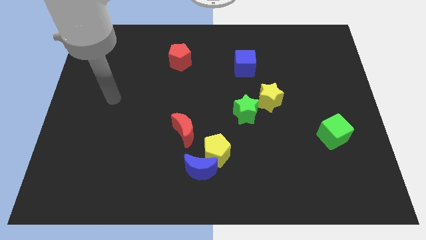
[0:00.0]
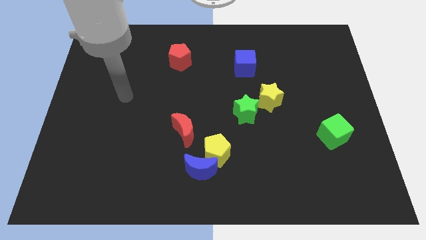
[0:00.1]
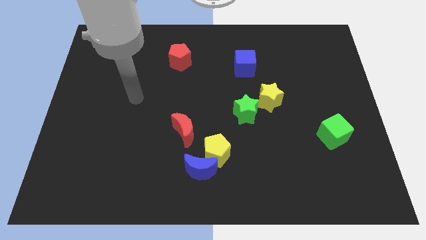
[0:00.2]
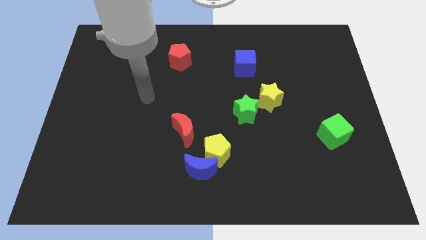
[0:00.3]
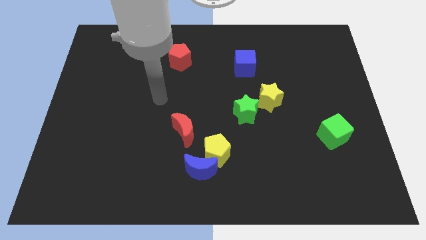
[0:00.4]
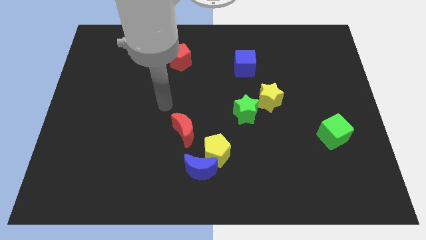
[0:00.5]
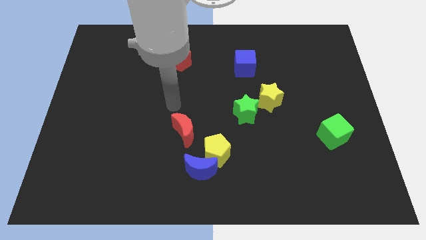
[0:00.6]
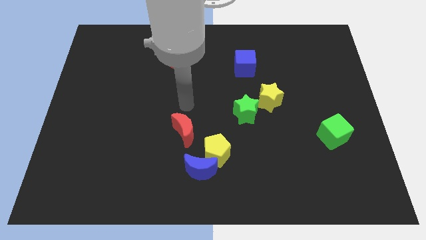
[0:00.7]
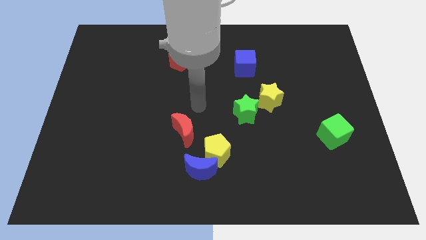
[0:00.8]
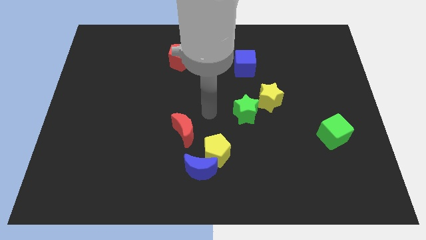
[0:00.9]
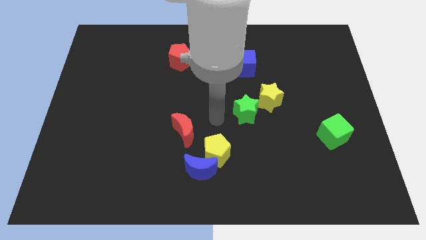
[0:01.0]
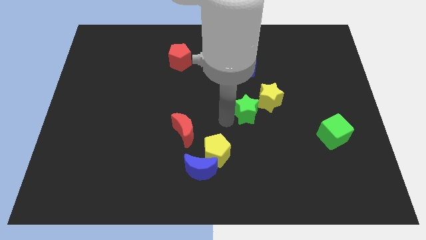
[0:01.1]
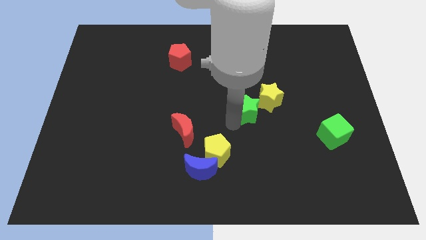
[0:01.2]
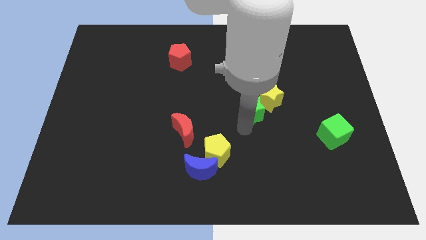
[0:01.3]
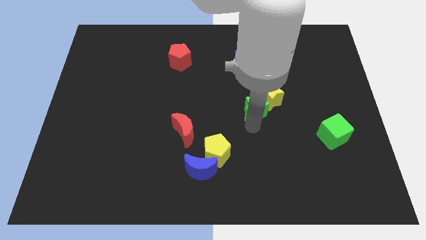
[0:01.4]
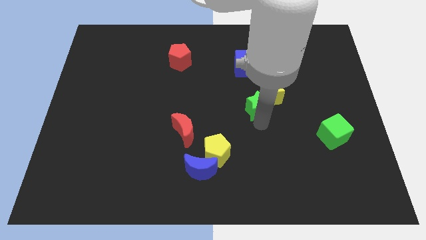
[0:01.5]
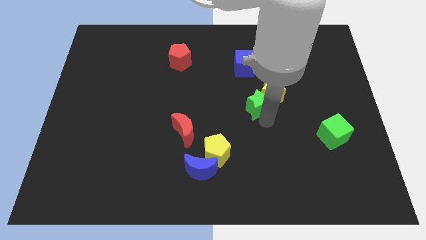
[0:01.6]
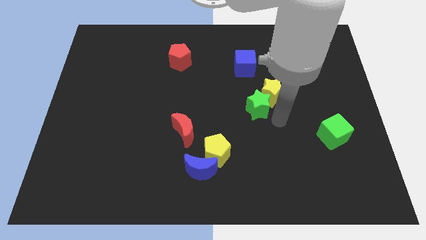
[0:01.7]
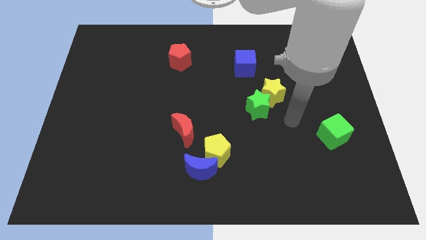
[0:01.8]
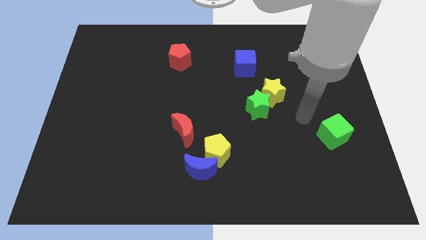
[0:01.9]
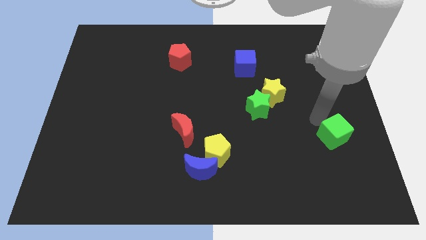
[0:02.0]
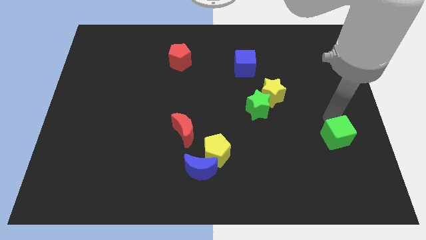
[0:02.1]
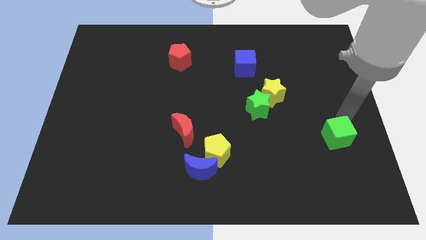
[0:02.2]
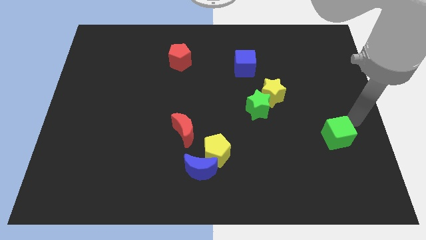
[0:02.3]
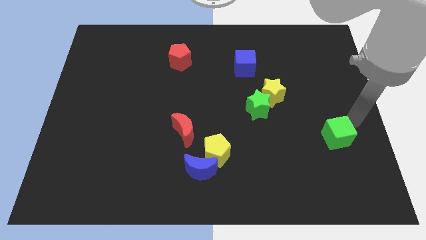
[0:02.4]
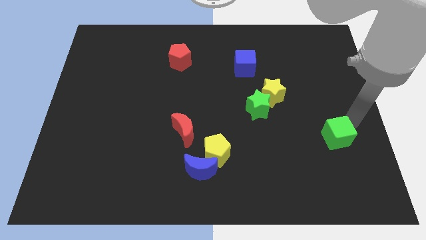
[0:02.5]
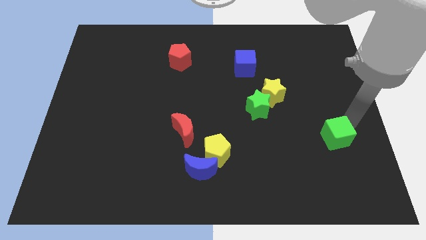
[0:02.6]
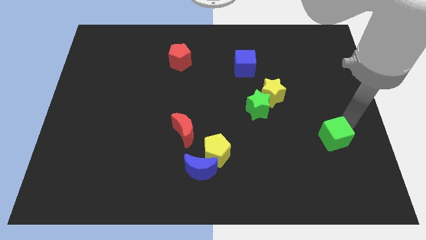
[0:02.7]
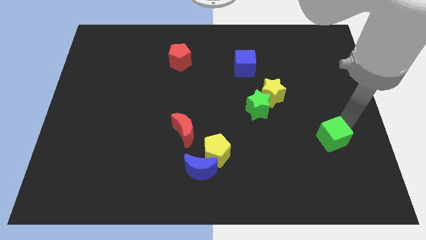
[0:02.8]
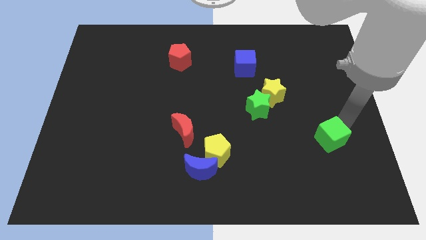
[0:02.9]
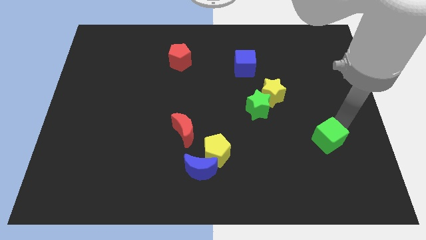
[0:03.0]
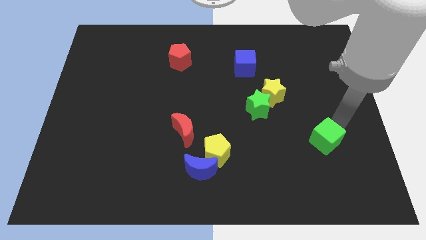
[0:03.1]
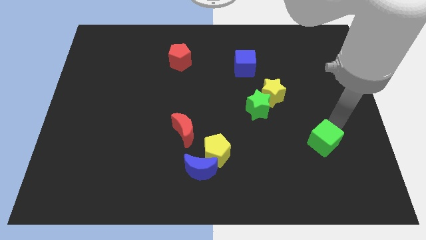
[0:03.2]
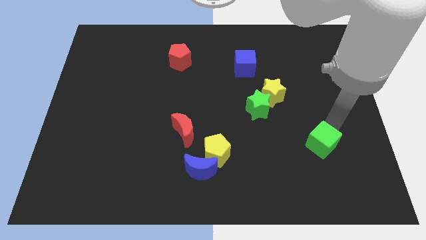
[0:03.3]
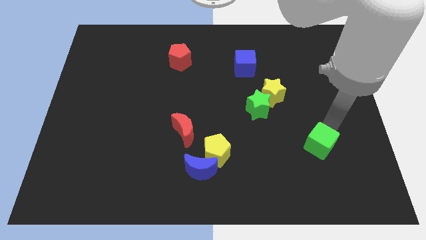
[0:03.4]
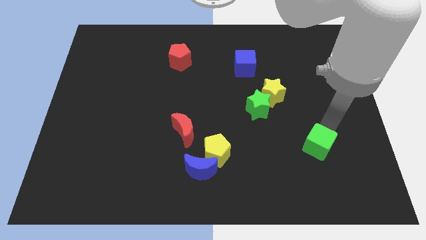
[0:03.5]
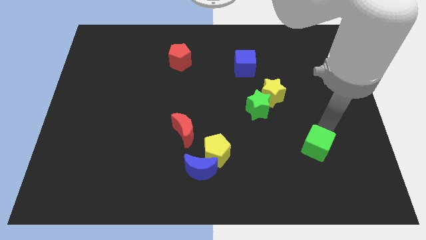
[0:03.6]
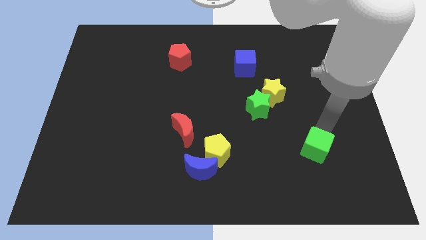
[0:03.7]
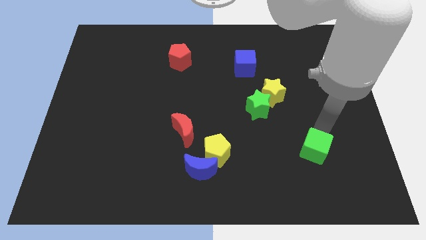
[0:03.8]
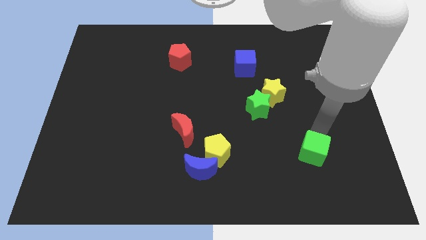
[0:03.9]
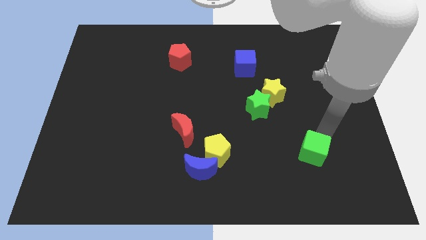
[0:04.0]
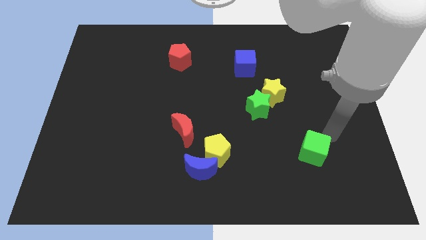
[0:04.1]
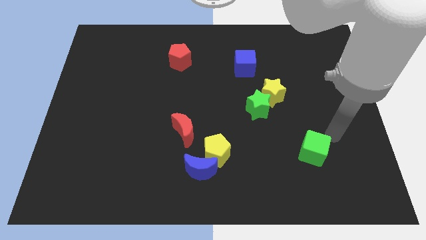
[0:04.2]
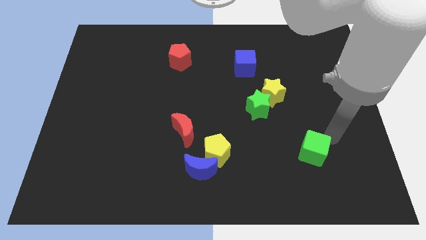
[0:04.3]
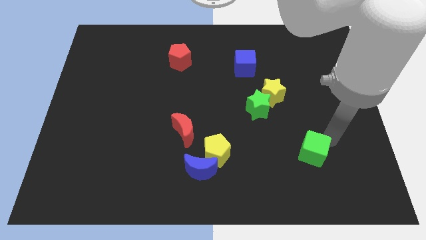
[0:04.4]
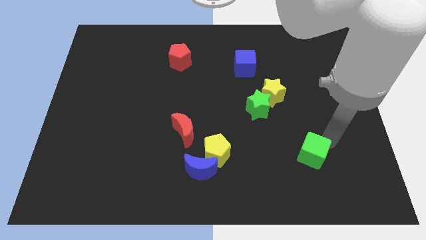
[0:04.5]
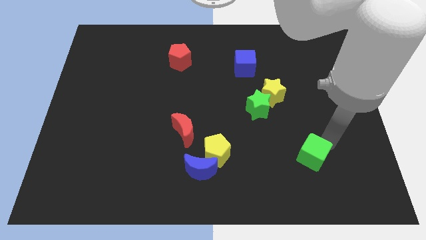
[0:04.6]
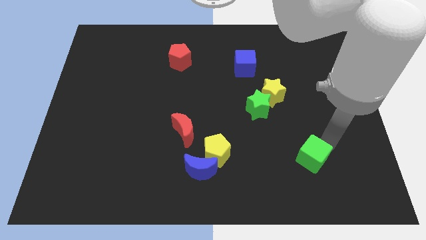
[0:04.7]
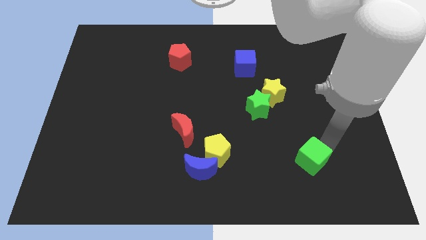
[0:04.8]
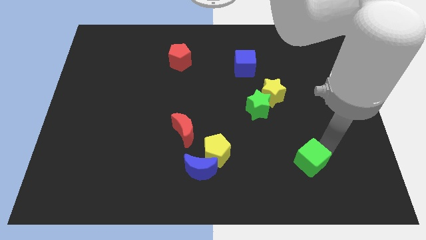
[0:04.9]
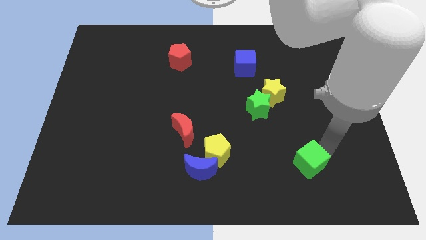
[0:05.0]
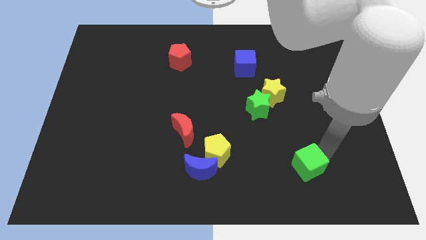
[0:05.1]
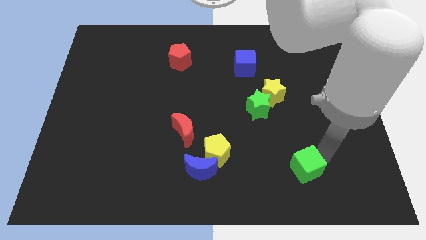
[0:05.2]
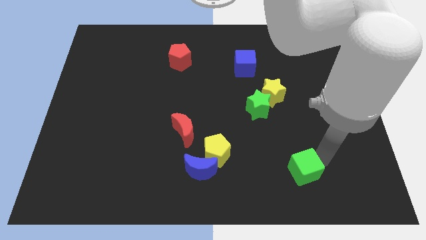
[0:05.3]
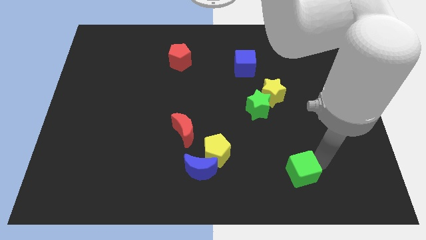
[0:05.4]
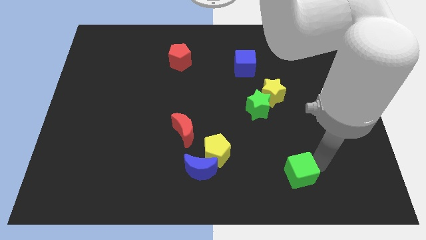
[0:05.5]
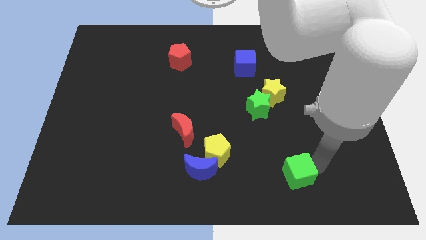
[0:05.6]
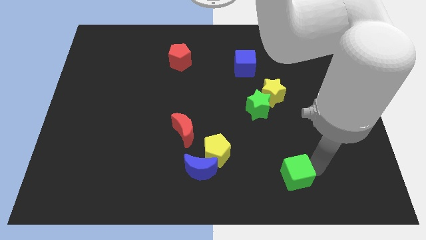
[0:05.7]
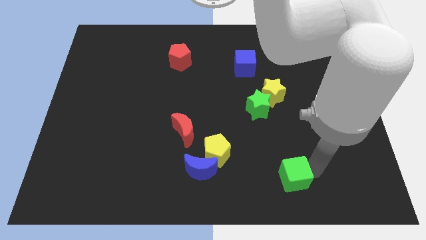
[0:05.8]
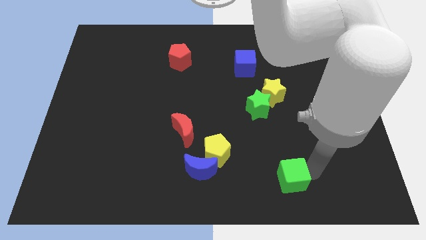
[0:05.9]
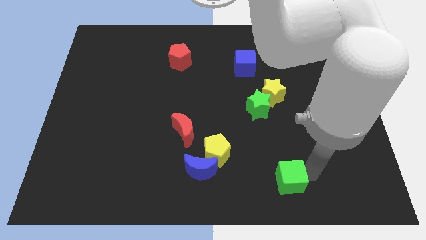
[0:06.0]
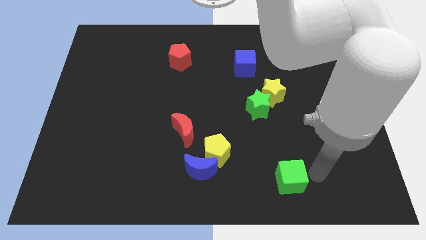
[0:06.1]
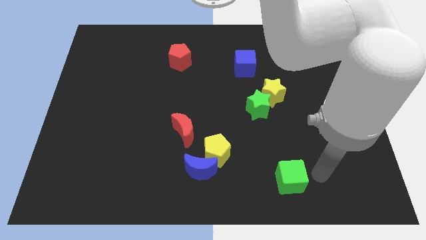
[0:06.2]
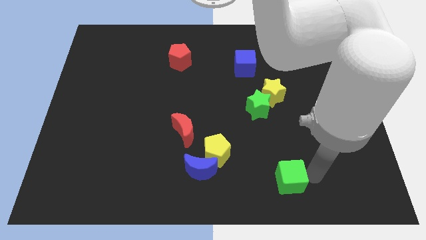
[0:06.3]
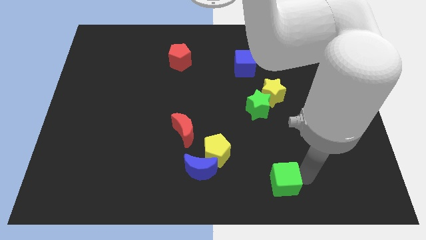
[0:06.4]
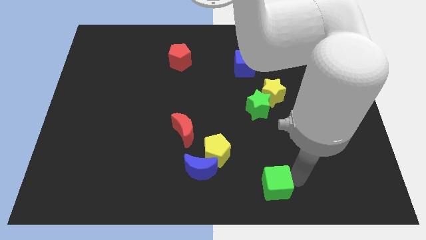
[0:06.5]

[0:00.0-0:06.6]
push the green cube to the bottom side

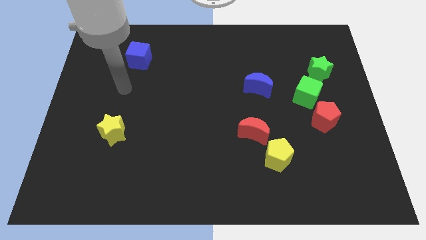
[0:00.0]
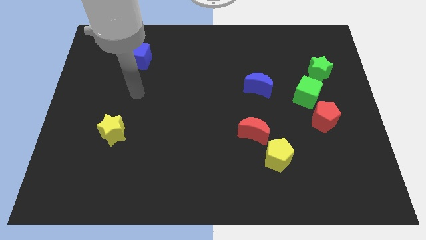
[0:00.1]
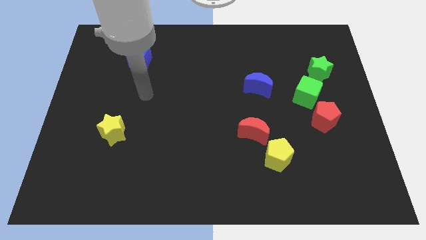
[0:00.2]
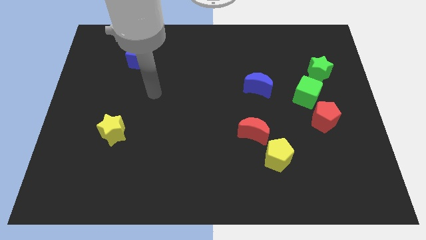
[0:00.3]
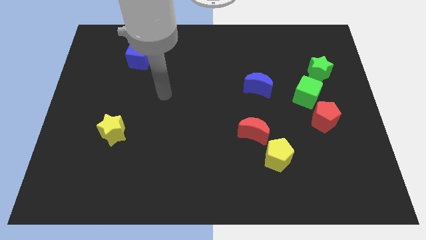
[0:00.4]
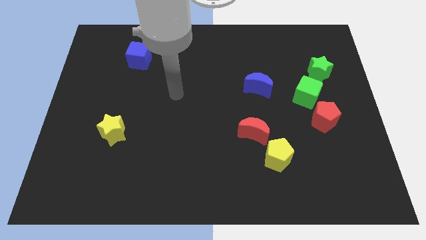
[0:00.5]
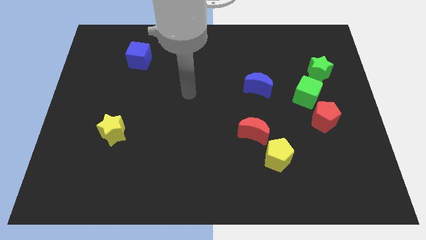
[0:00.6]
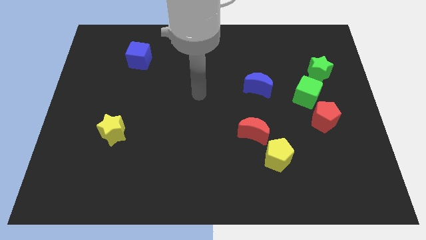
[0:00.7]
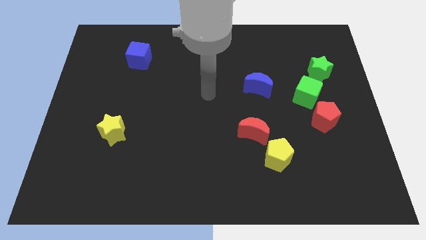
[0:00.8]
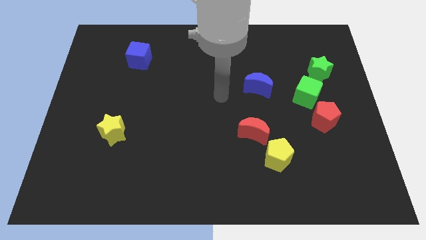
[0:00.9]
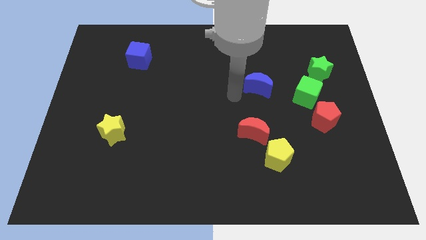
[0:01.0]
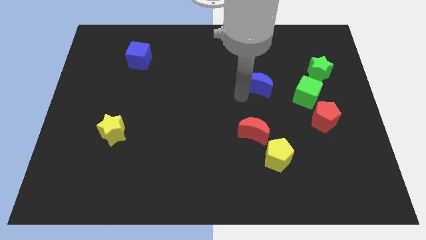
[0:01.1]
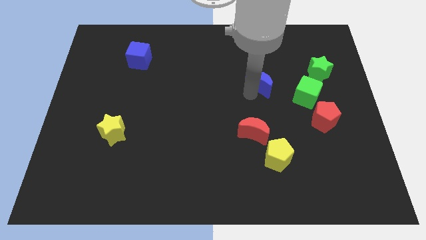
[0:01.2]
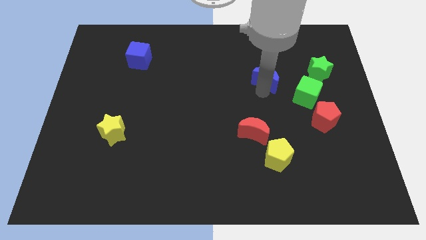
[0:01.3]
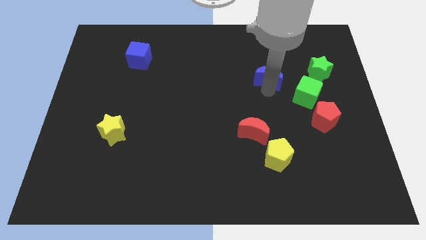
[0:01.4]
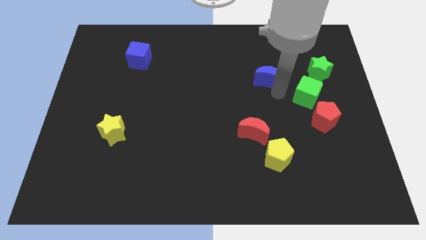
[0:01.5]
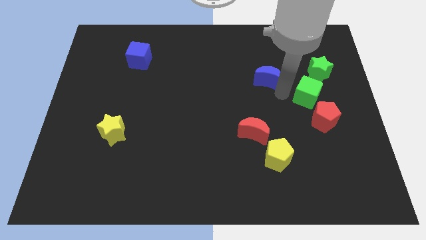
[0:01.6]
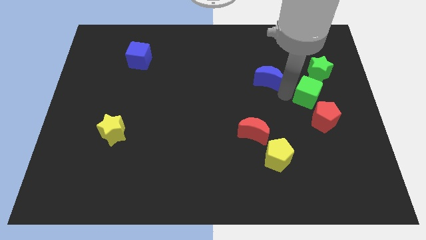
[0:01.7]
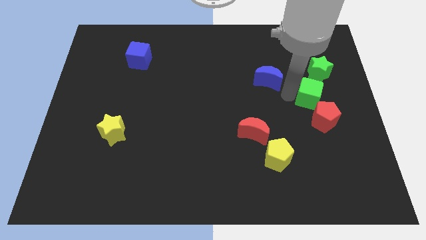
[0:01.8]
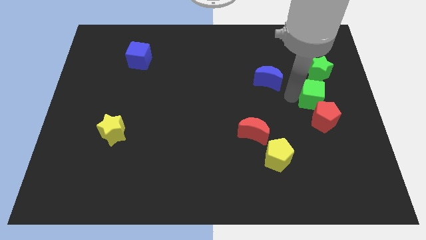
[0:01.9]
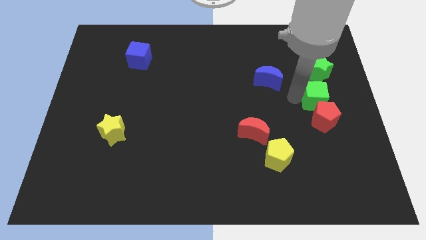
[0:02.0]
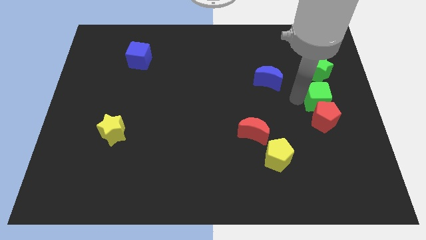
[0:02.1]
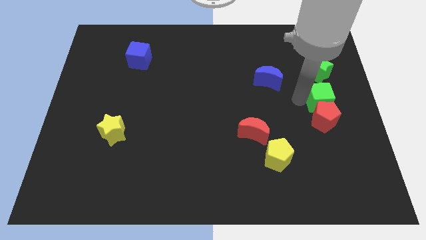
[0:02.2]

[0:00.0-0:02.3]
move the green cube to the center right
